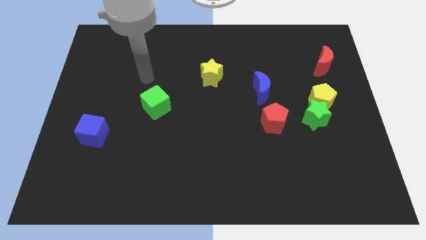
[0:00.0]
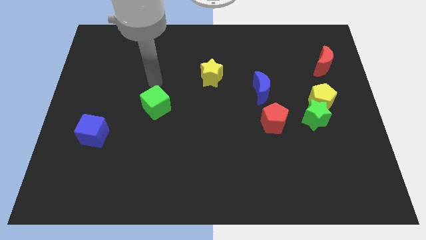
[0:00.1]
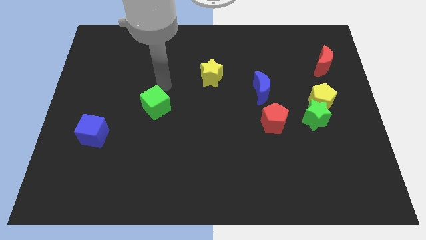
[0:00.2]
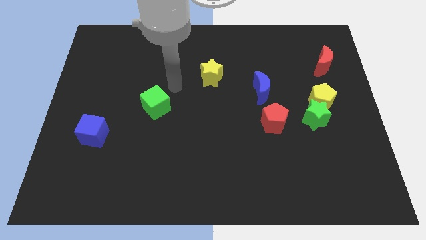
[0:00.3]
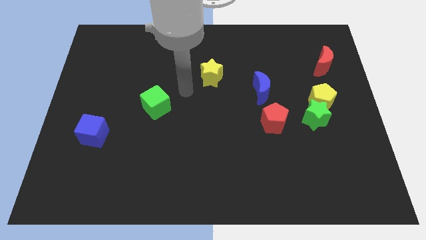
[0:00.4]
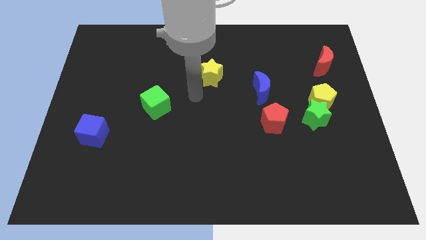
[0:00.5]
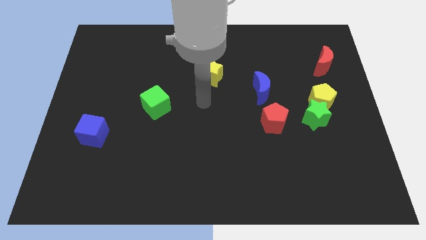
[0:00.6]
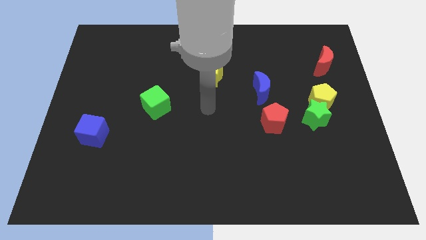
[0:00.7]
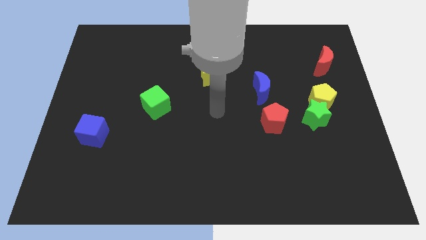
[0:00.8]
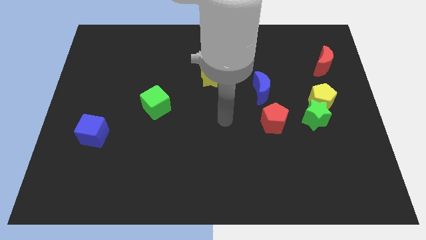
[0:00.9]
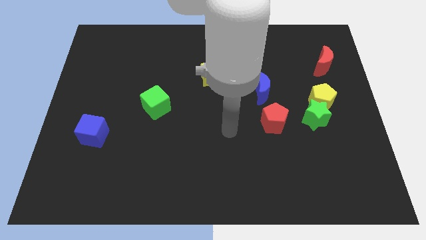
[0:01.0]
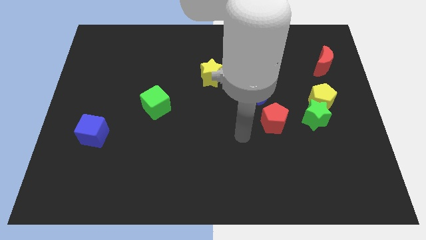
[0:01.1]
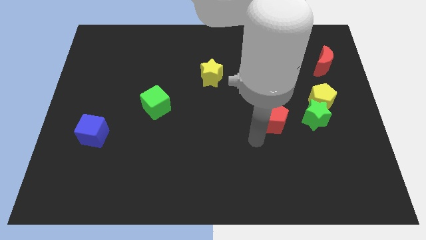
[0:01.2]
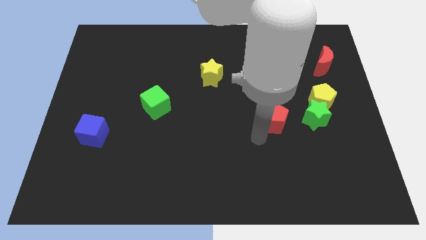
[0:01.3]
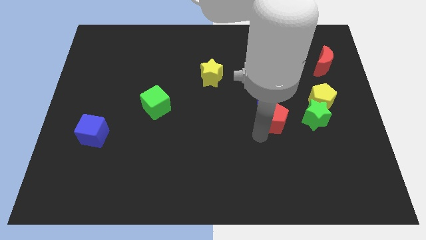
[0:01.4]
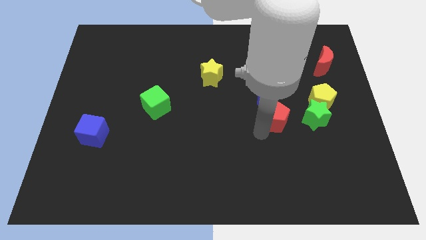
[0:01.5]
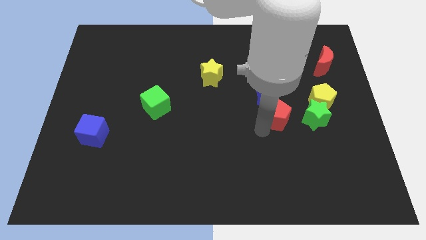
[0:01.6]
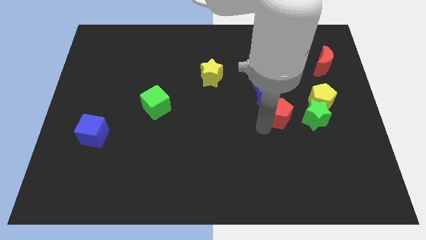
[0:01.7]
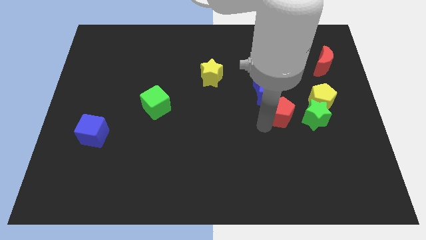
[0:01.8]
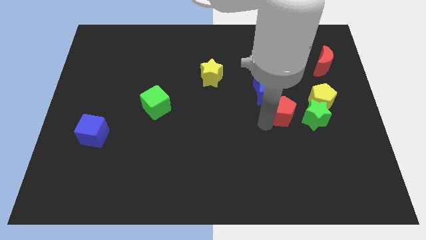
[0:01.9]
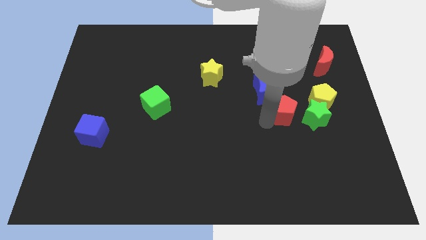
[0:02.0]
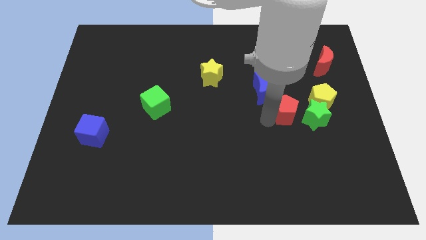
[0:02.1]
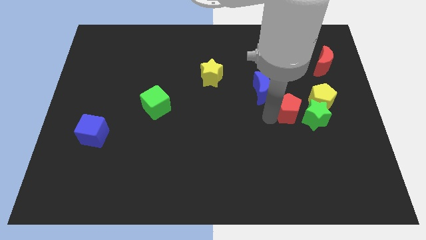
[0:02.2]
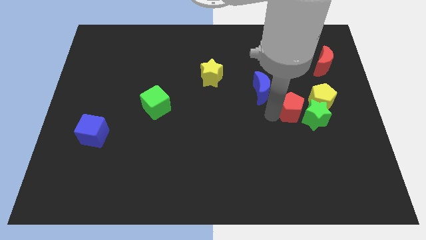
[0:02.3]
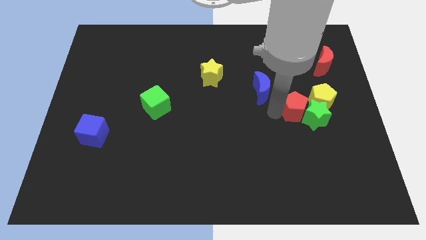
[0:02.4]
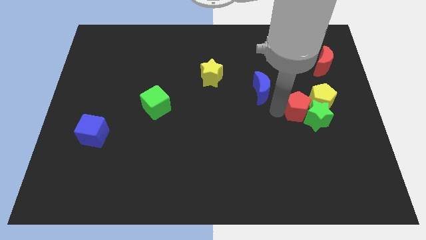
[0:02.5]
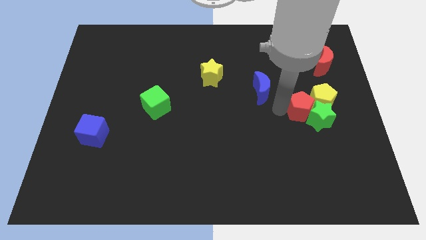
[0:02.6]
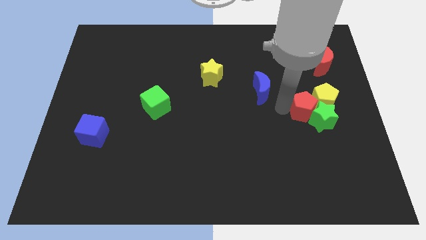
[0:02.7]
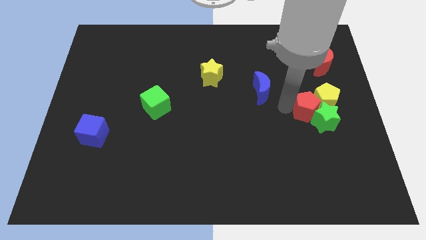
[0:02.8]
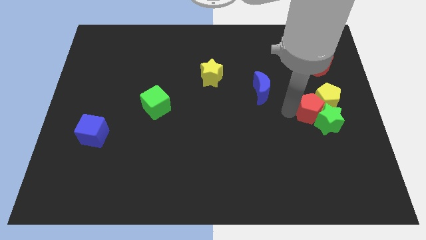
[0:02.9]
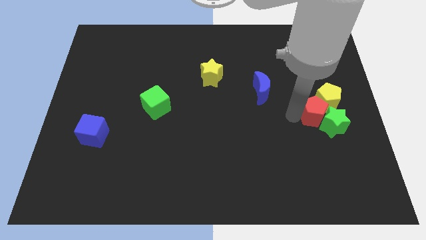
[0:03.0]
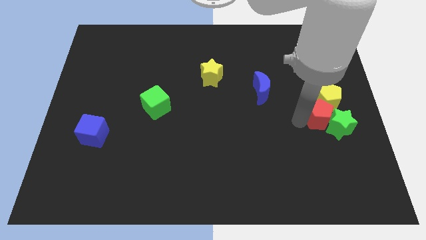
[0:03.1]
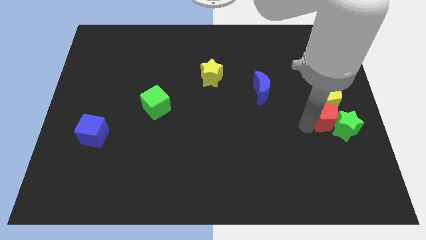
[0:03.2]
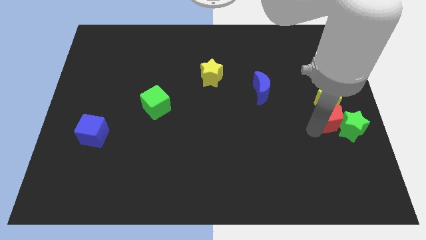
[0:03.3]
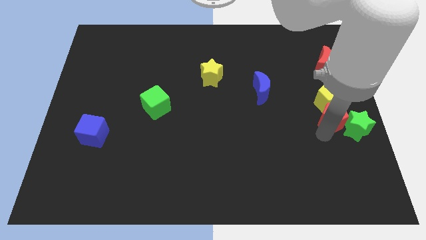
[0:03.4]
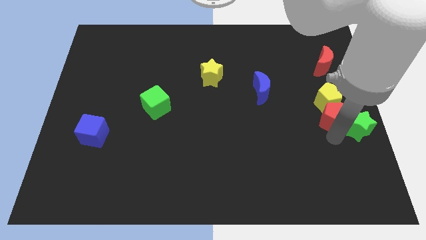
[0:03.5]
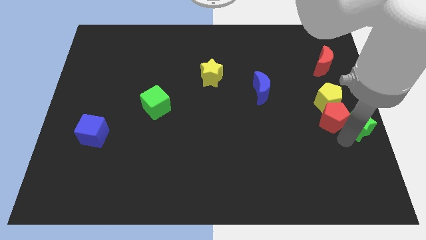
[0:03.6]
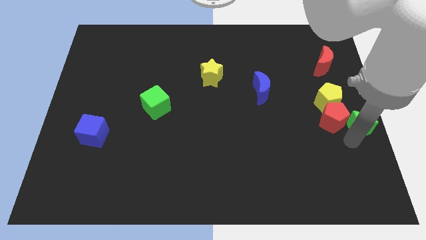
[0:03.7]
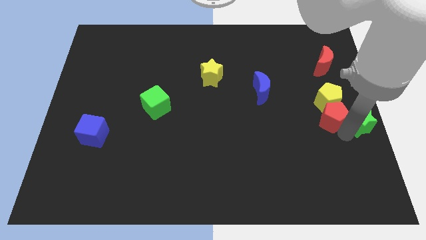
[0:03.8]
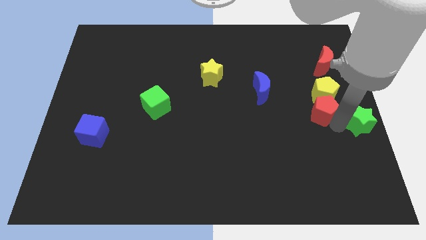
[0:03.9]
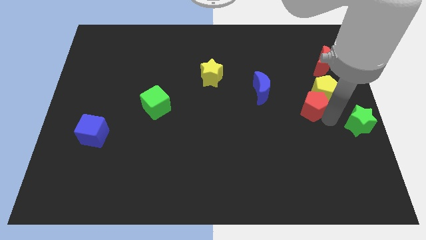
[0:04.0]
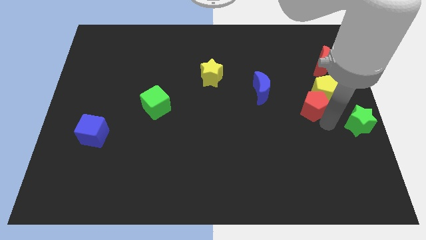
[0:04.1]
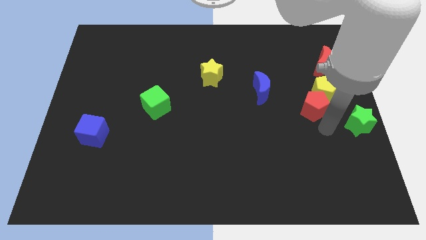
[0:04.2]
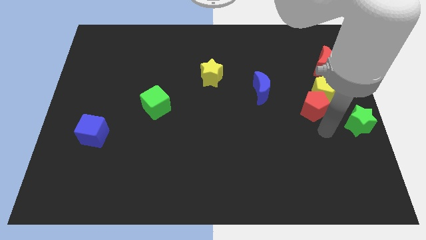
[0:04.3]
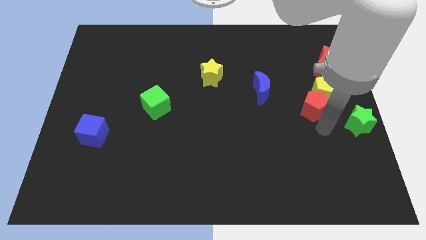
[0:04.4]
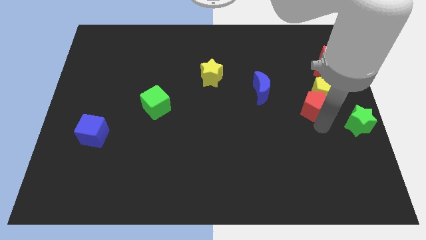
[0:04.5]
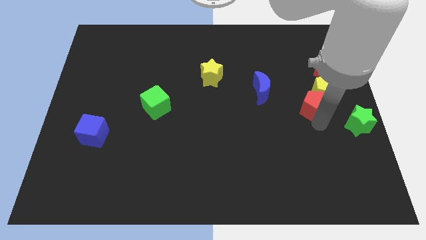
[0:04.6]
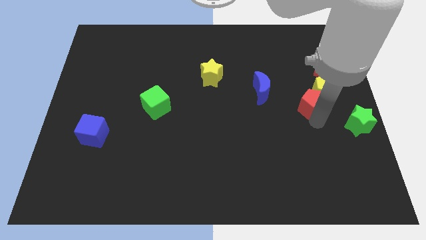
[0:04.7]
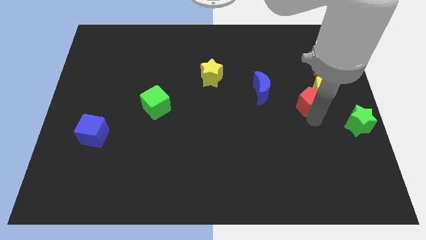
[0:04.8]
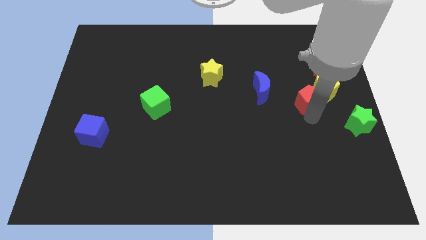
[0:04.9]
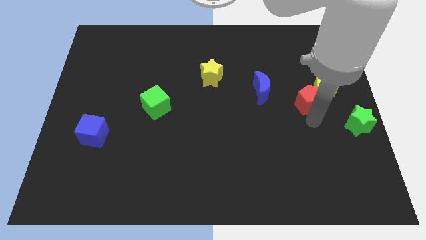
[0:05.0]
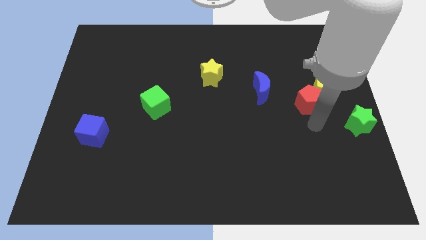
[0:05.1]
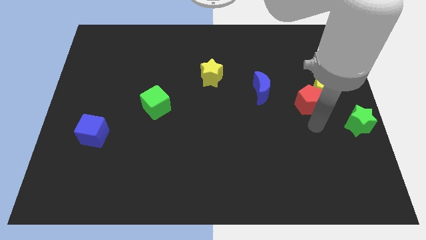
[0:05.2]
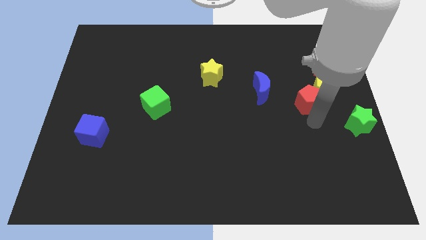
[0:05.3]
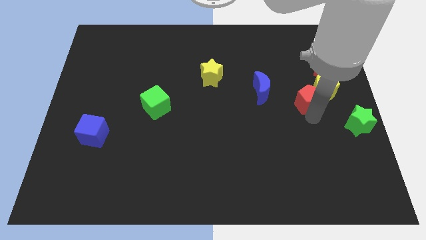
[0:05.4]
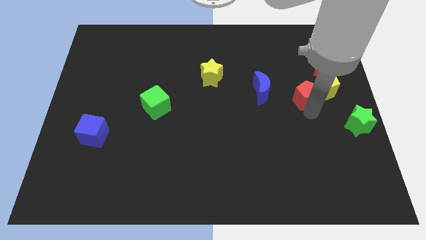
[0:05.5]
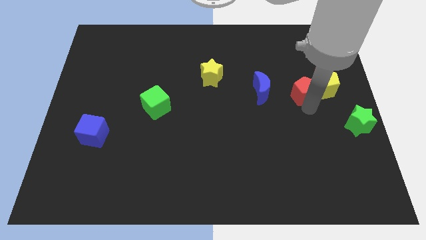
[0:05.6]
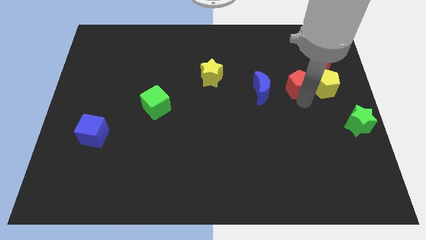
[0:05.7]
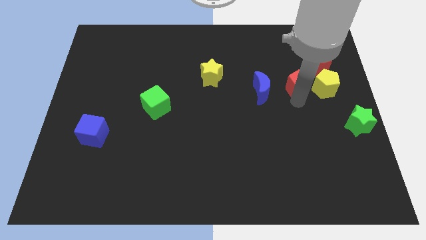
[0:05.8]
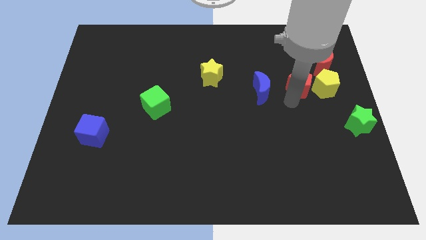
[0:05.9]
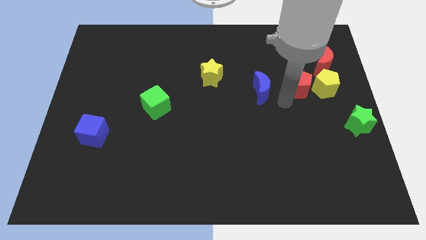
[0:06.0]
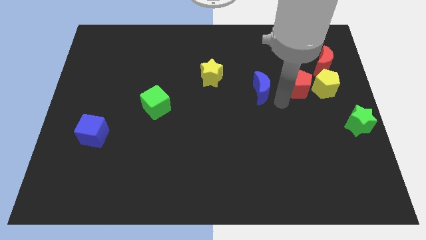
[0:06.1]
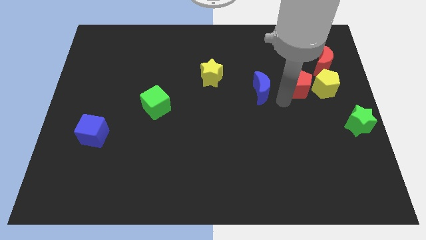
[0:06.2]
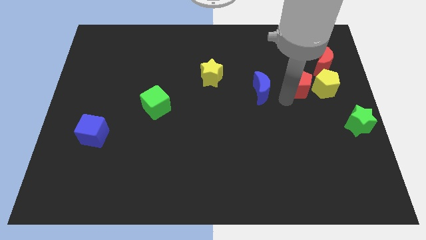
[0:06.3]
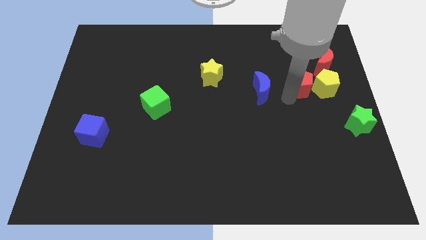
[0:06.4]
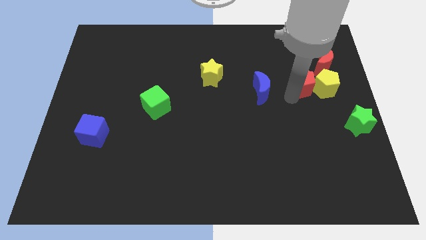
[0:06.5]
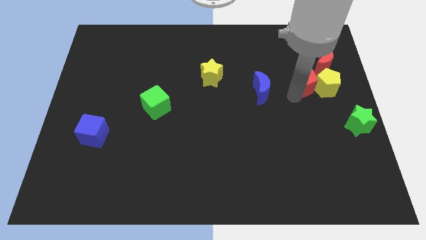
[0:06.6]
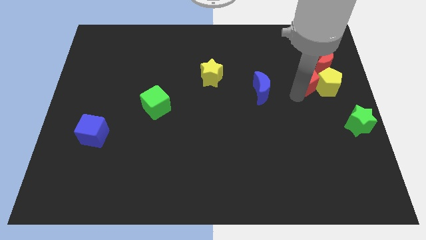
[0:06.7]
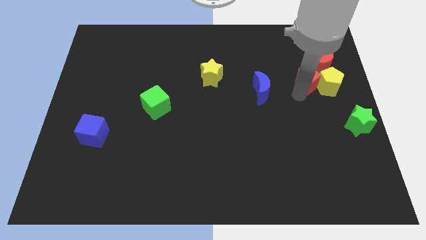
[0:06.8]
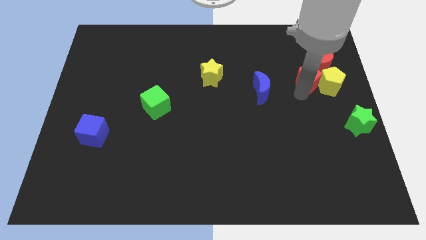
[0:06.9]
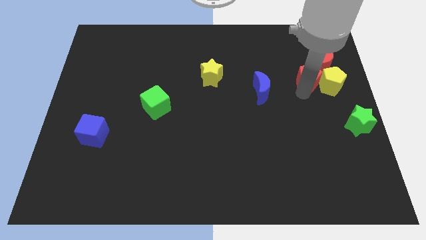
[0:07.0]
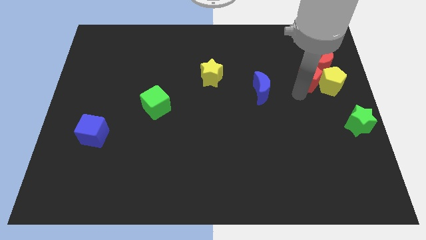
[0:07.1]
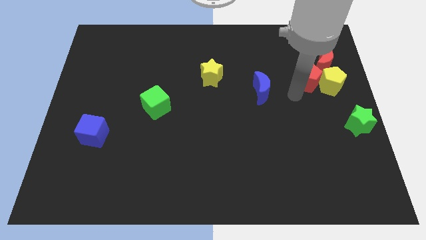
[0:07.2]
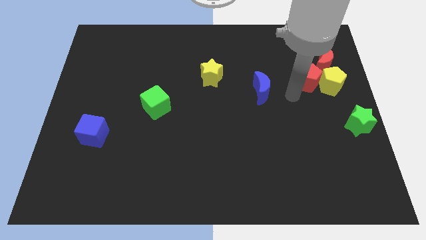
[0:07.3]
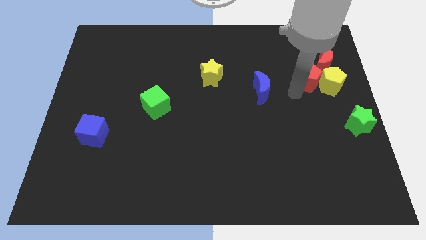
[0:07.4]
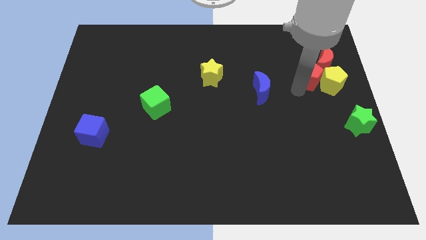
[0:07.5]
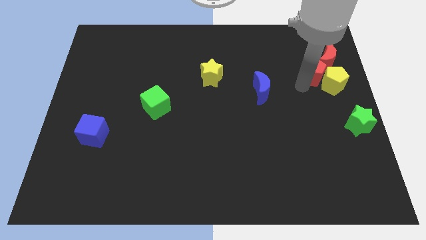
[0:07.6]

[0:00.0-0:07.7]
slide the red pentagon towards the red moon
